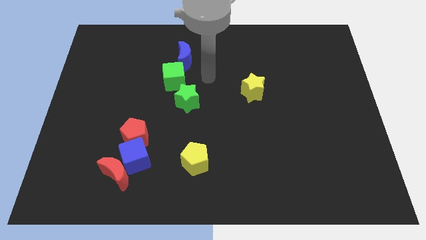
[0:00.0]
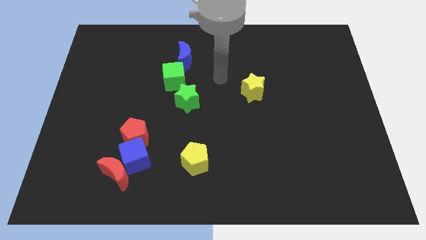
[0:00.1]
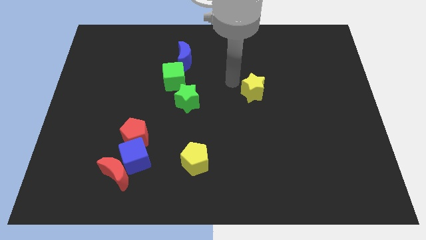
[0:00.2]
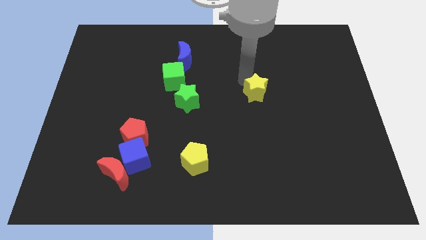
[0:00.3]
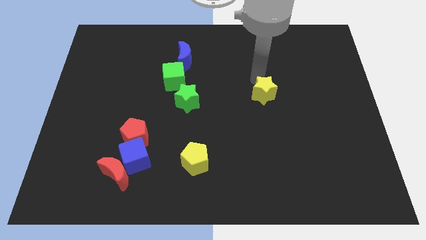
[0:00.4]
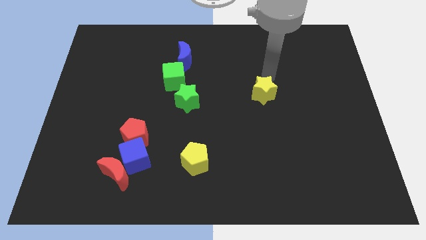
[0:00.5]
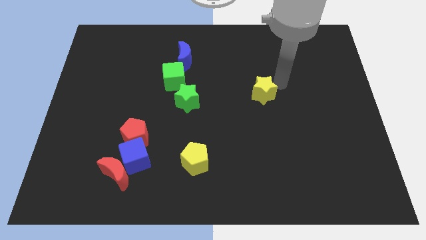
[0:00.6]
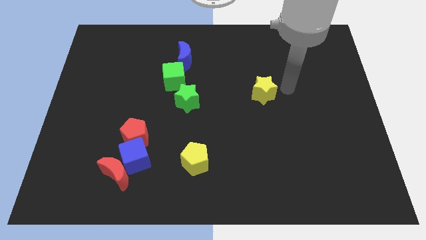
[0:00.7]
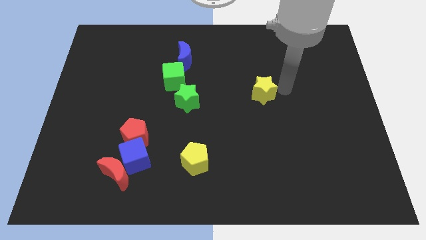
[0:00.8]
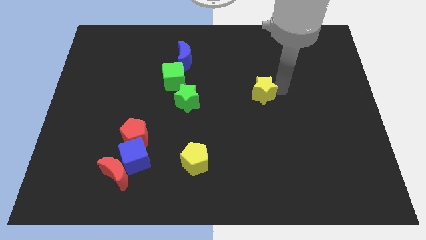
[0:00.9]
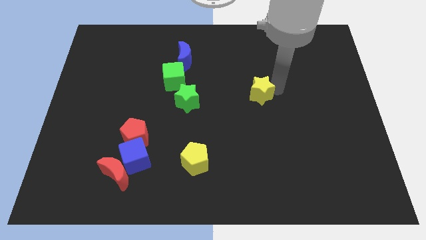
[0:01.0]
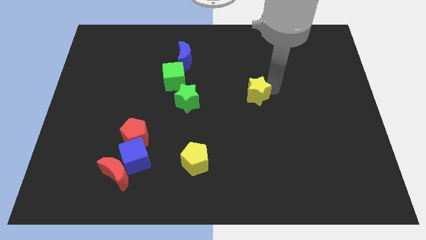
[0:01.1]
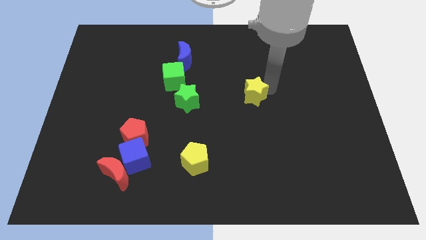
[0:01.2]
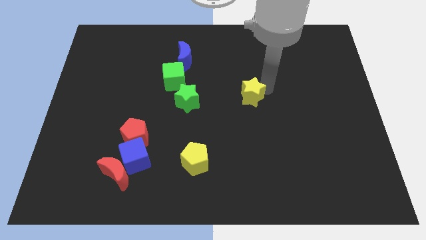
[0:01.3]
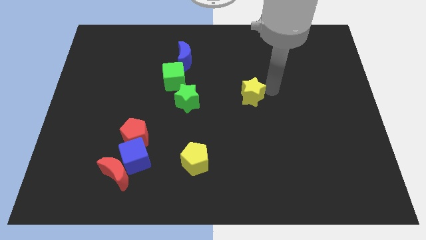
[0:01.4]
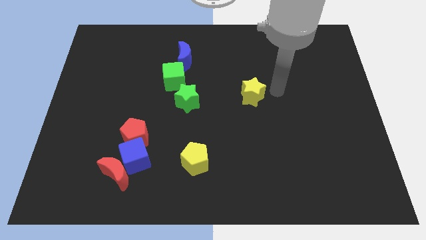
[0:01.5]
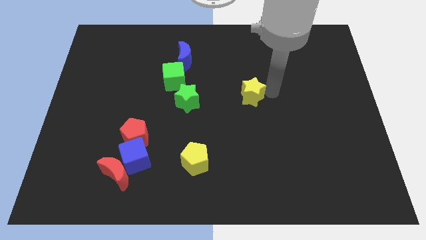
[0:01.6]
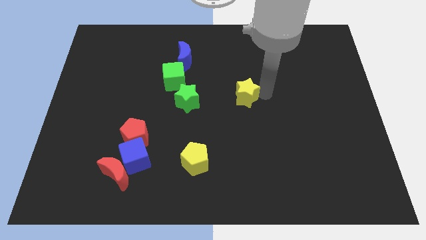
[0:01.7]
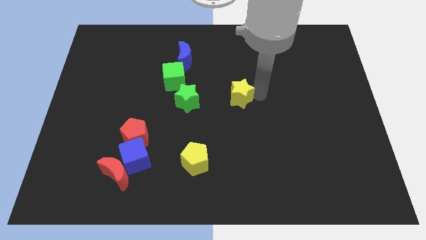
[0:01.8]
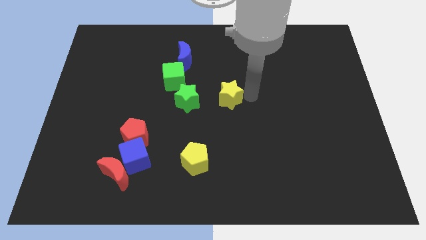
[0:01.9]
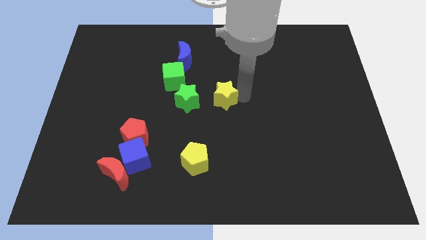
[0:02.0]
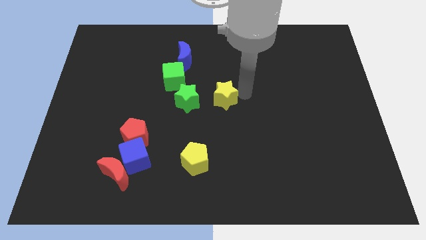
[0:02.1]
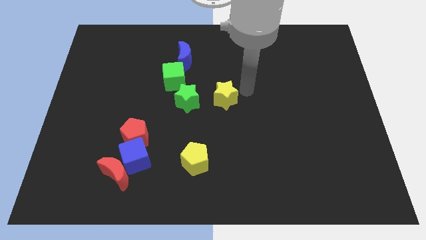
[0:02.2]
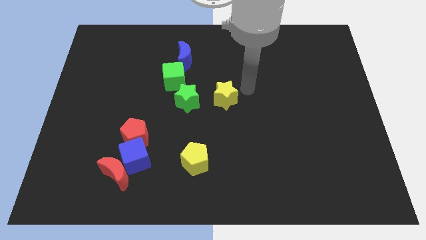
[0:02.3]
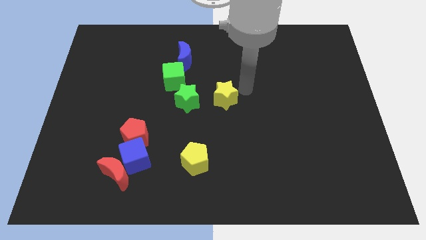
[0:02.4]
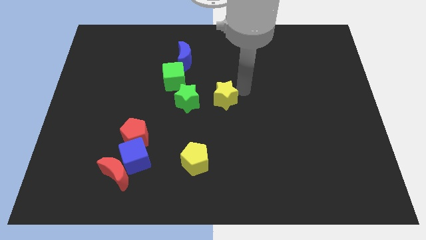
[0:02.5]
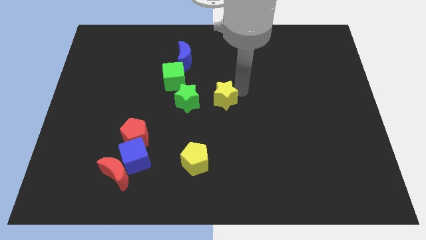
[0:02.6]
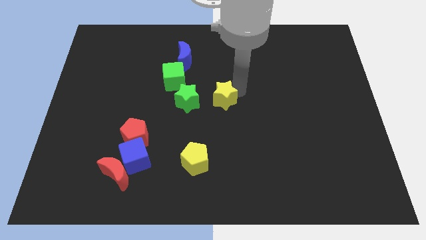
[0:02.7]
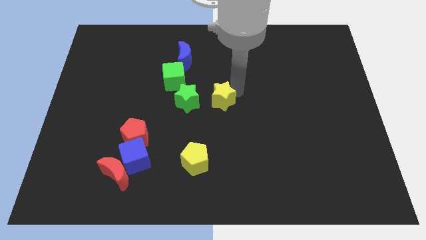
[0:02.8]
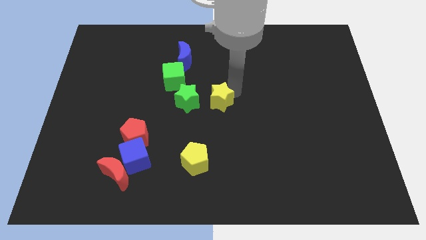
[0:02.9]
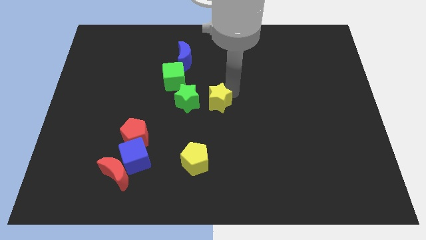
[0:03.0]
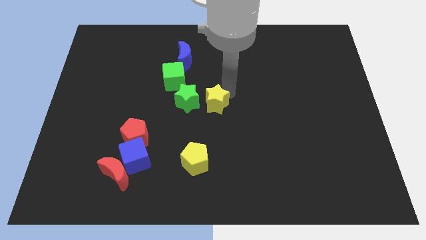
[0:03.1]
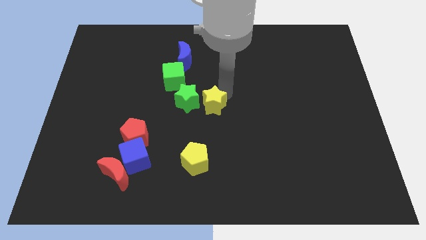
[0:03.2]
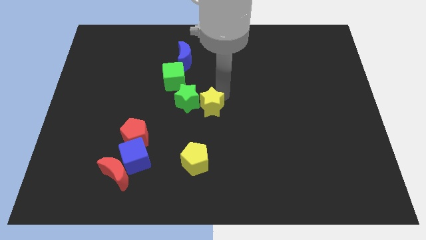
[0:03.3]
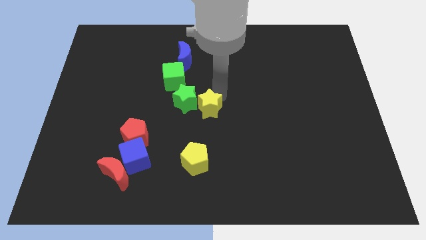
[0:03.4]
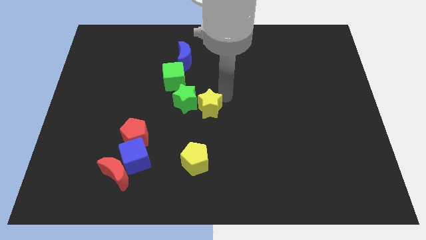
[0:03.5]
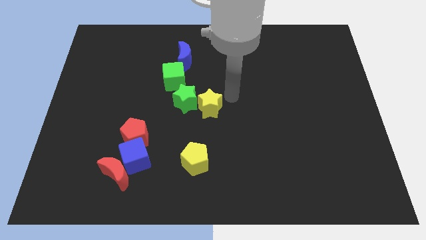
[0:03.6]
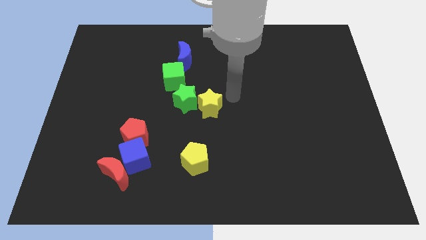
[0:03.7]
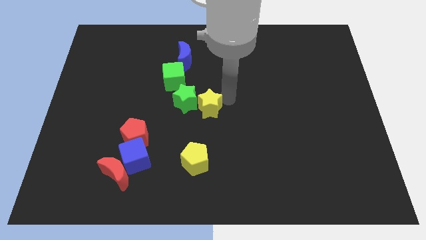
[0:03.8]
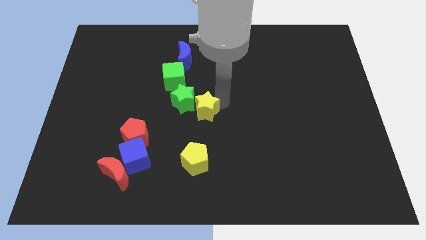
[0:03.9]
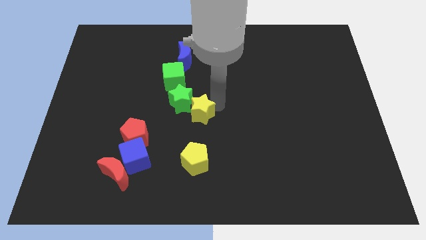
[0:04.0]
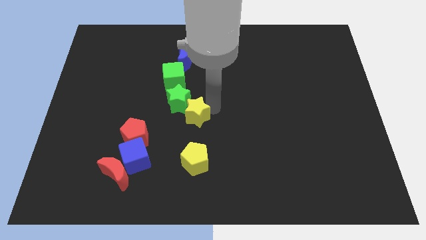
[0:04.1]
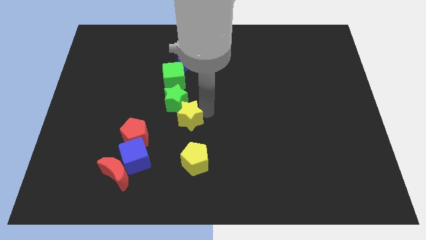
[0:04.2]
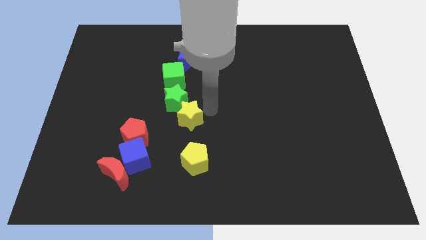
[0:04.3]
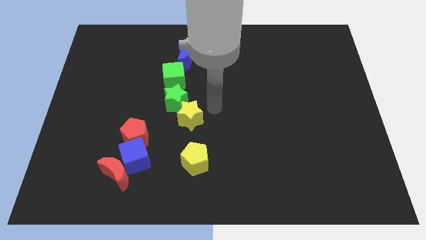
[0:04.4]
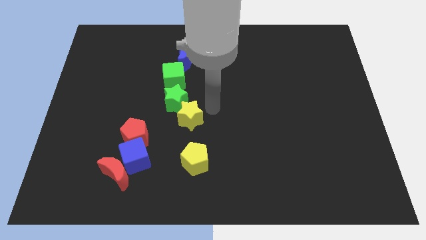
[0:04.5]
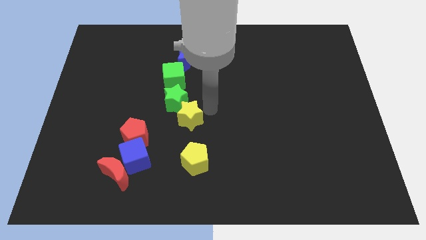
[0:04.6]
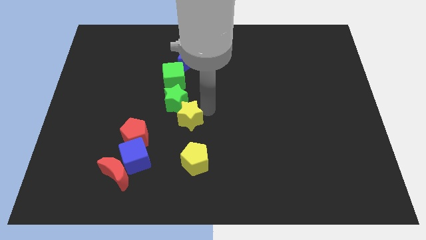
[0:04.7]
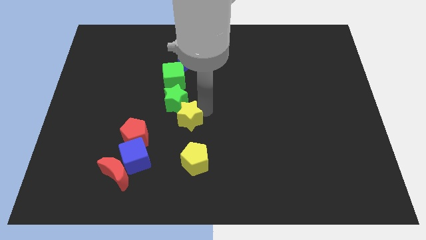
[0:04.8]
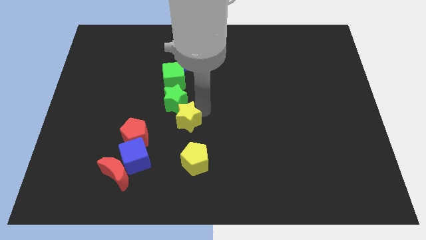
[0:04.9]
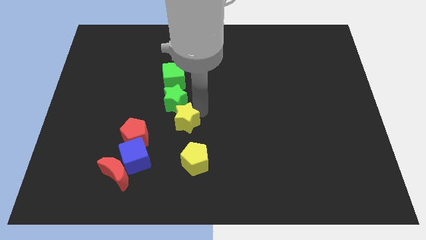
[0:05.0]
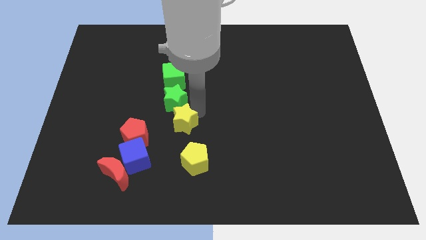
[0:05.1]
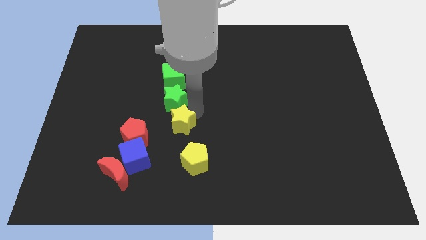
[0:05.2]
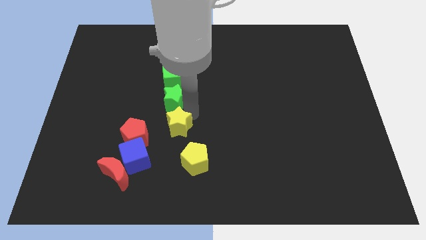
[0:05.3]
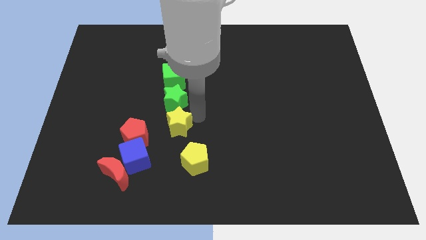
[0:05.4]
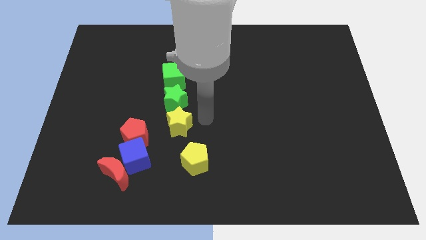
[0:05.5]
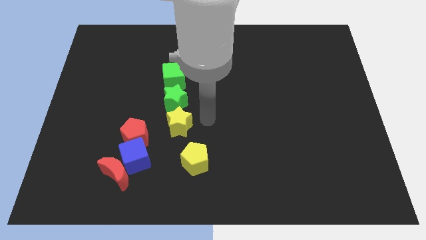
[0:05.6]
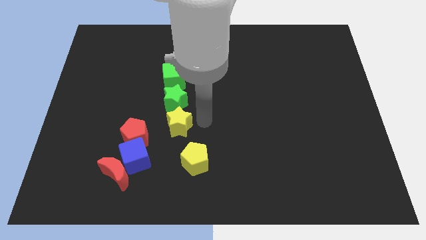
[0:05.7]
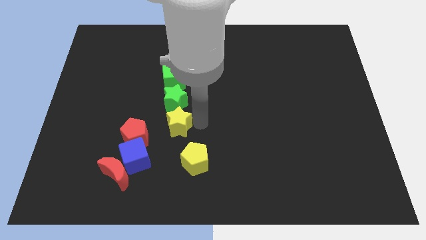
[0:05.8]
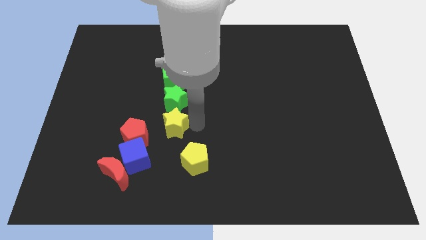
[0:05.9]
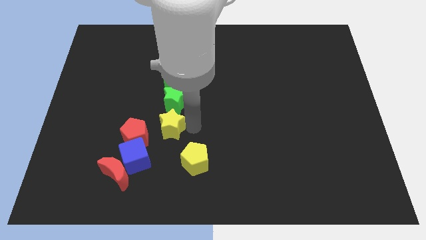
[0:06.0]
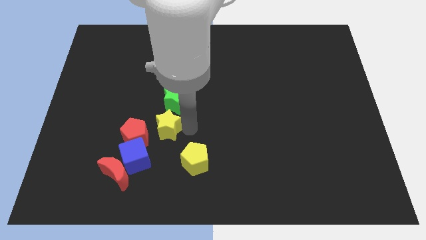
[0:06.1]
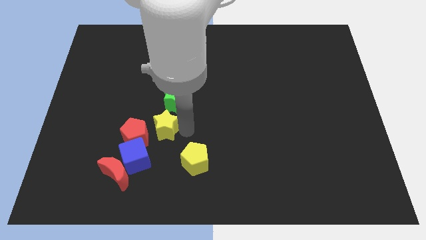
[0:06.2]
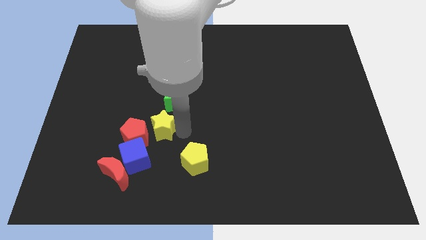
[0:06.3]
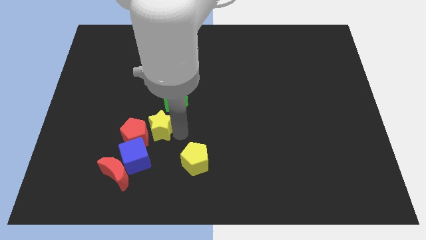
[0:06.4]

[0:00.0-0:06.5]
move the yellow star next to the red pentagon

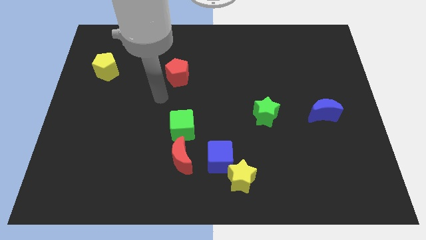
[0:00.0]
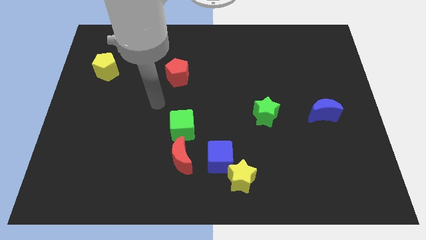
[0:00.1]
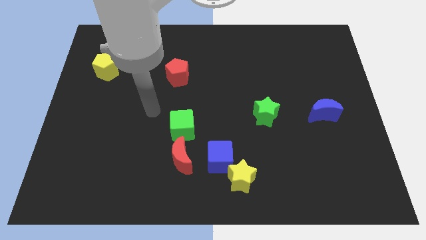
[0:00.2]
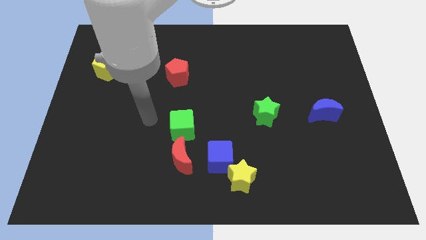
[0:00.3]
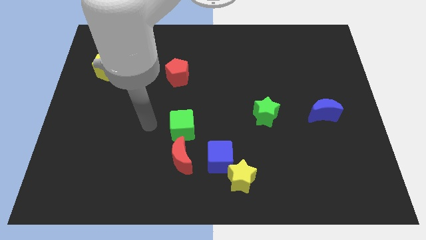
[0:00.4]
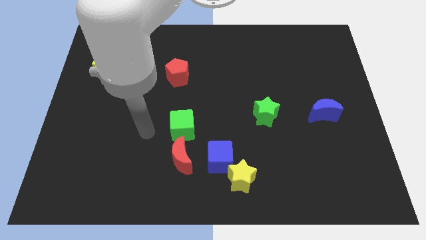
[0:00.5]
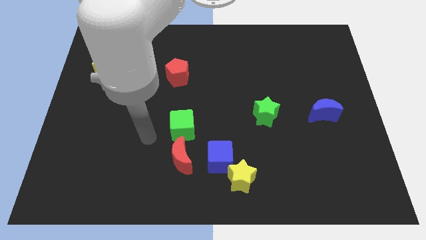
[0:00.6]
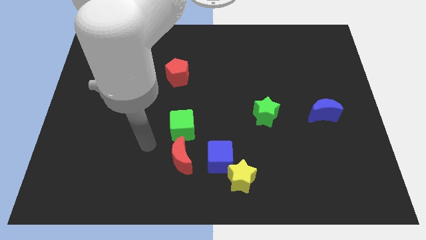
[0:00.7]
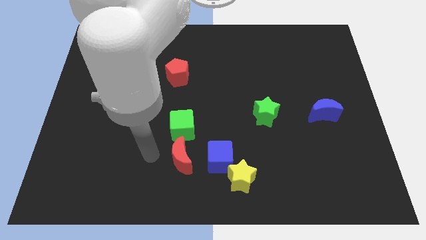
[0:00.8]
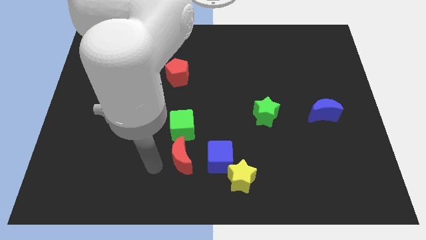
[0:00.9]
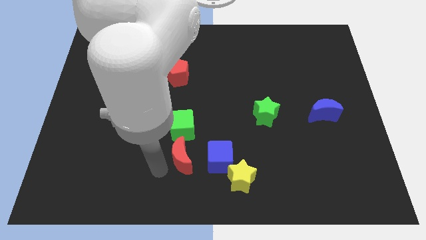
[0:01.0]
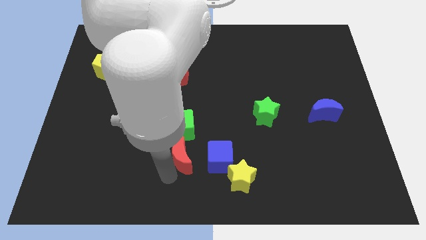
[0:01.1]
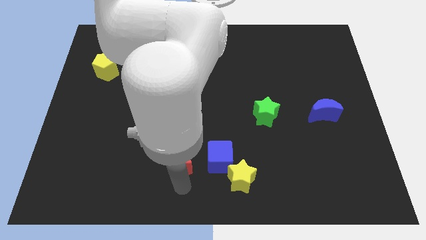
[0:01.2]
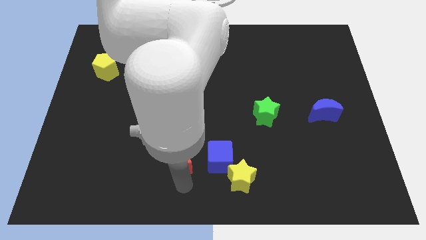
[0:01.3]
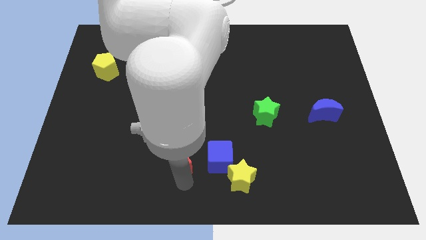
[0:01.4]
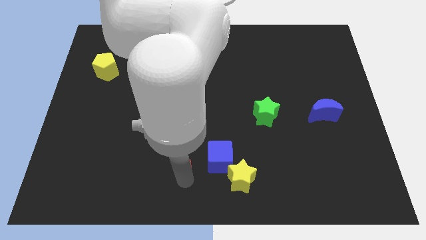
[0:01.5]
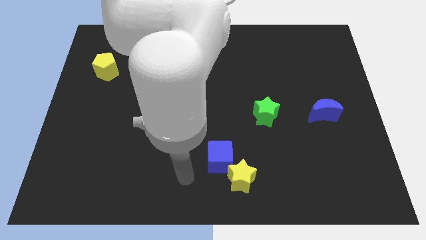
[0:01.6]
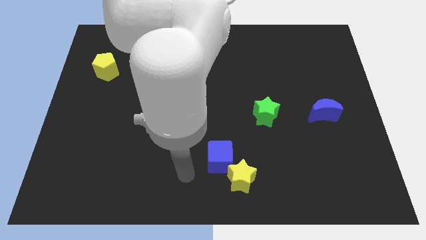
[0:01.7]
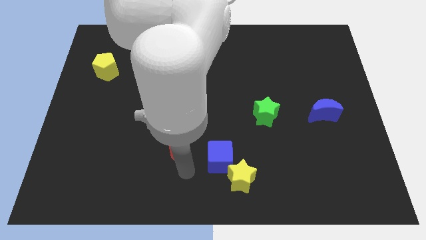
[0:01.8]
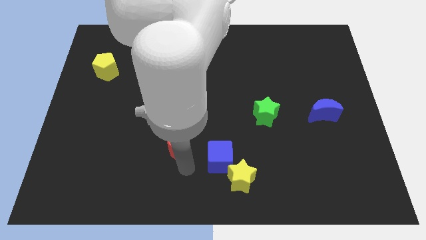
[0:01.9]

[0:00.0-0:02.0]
move the red moon next to the green cube
